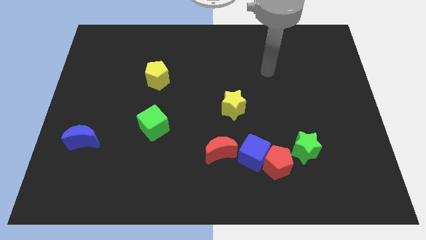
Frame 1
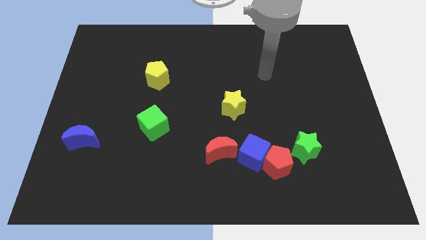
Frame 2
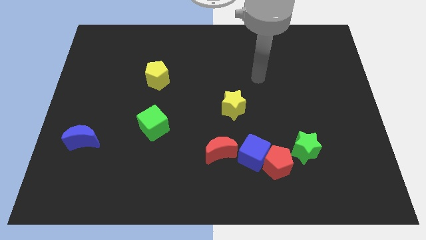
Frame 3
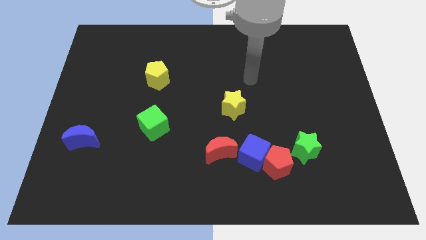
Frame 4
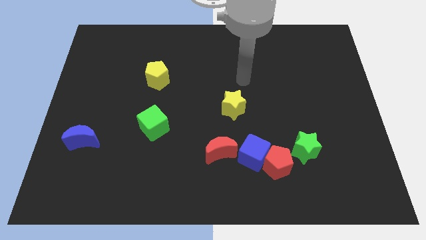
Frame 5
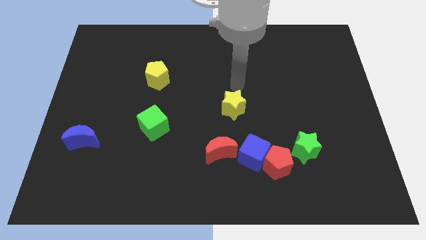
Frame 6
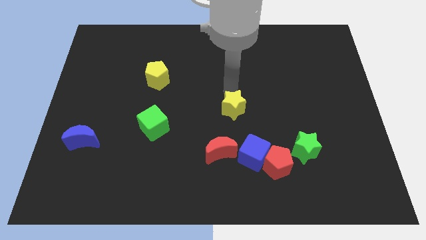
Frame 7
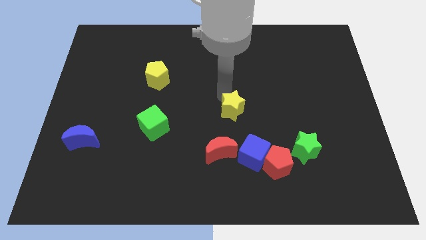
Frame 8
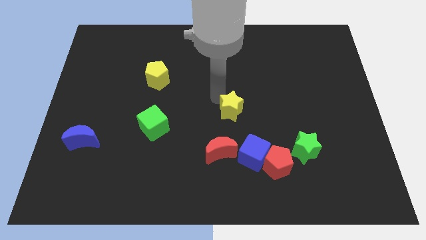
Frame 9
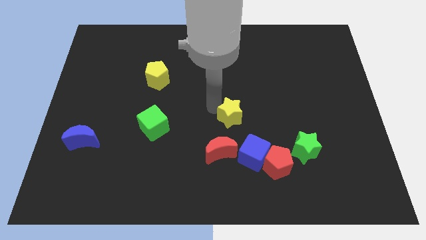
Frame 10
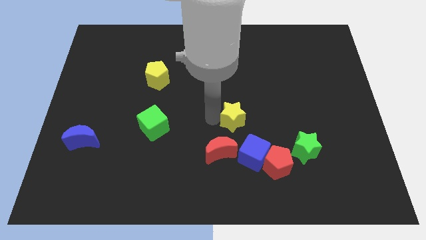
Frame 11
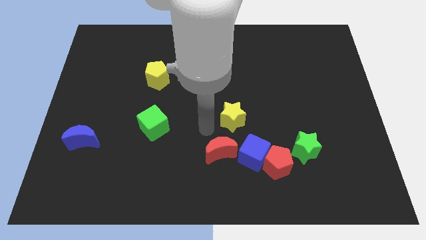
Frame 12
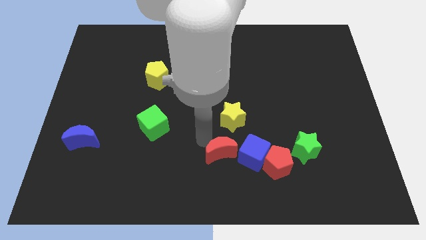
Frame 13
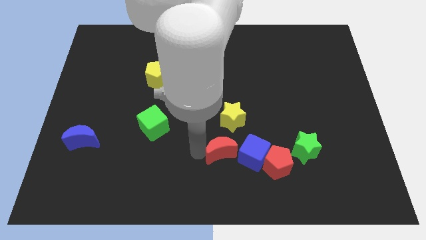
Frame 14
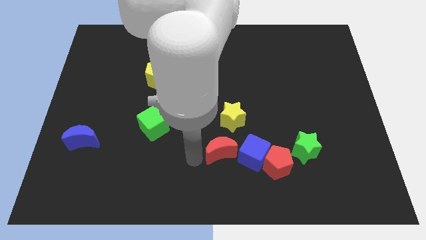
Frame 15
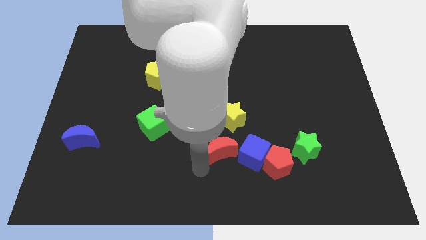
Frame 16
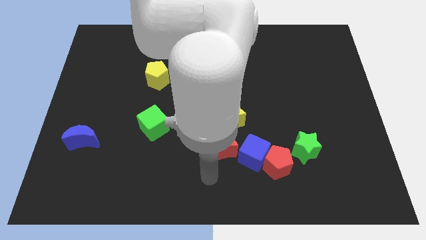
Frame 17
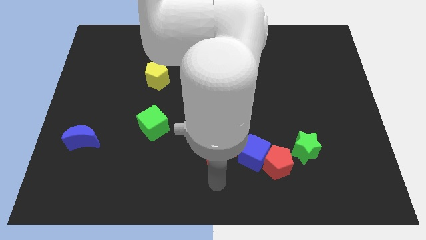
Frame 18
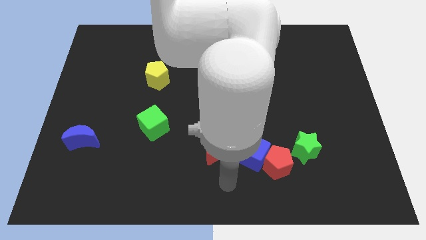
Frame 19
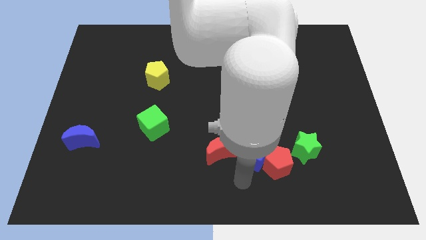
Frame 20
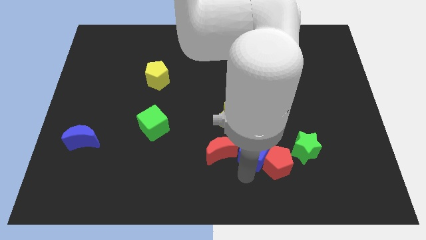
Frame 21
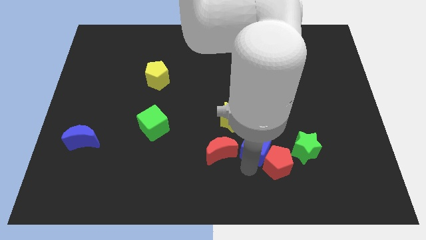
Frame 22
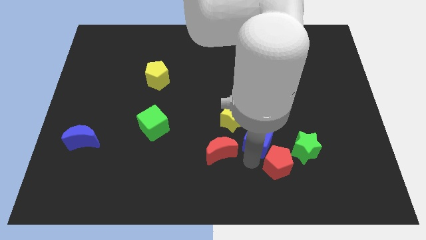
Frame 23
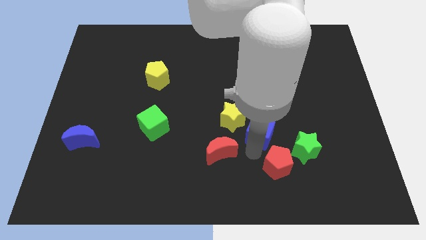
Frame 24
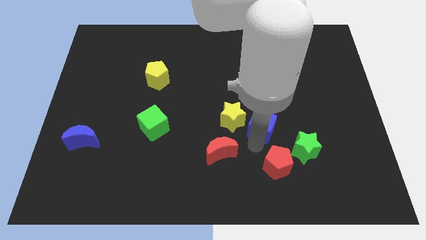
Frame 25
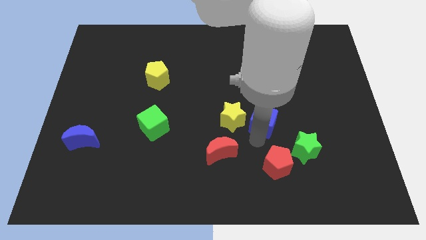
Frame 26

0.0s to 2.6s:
pull the blue cube apart from the red pentagon and red moon

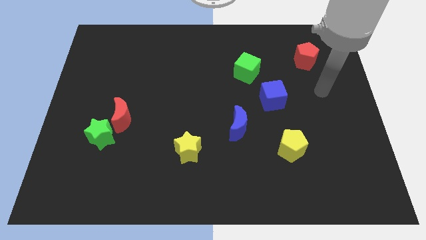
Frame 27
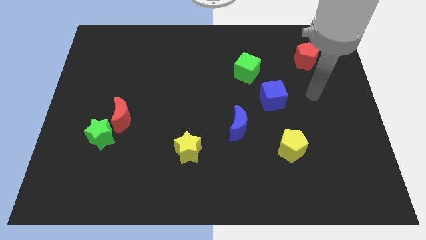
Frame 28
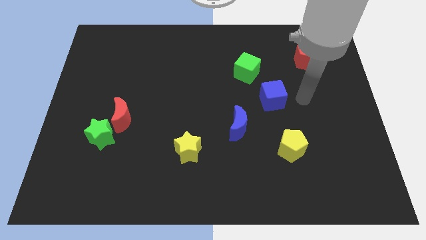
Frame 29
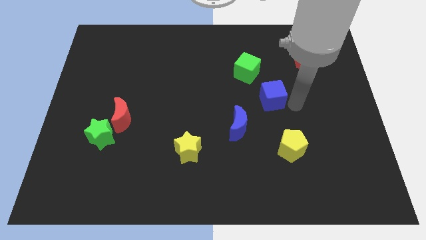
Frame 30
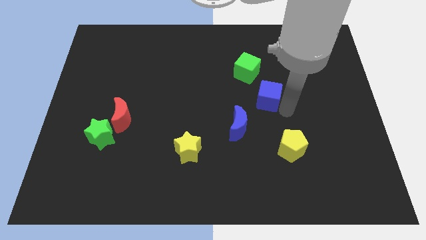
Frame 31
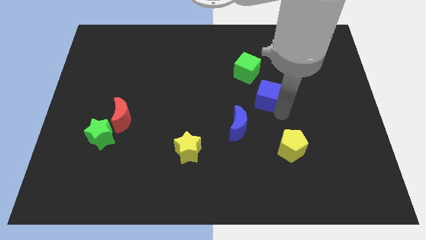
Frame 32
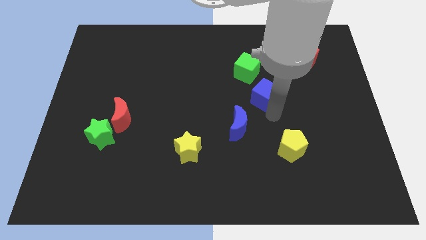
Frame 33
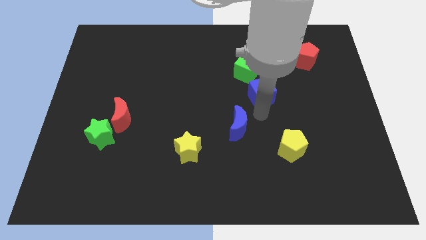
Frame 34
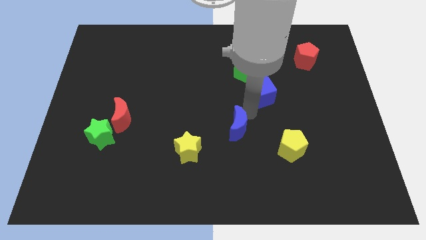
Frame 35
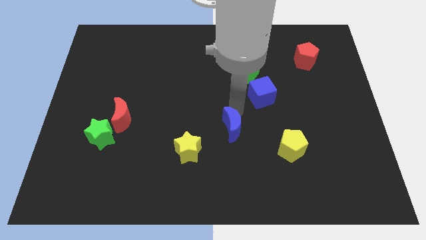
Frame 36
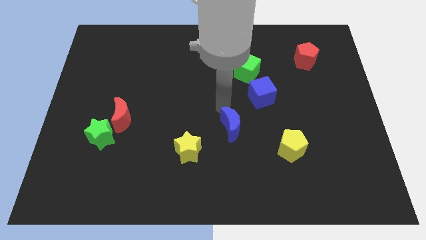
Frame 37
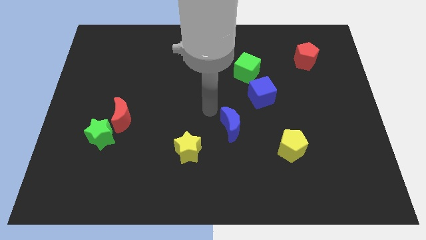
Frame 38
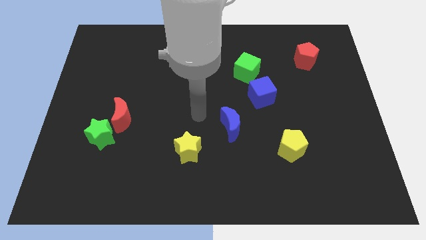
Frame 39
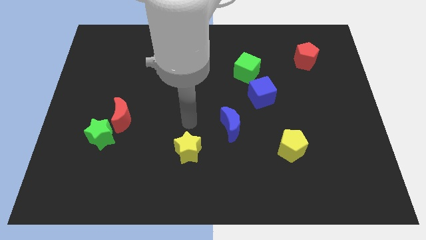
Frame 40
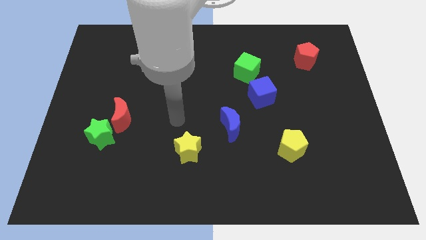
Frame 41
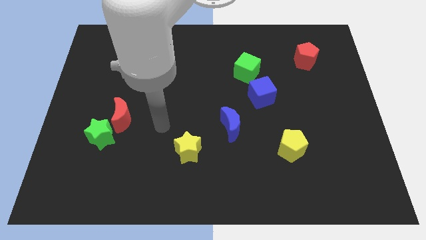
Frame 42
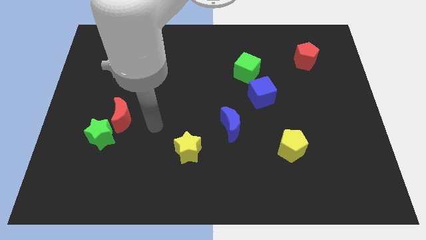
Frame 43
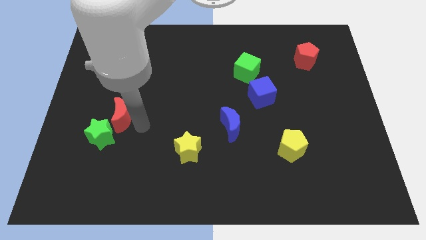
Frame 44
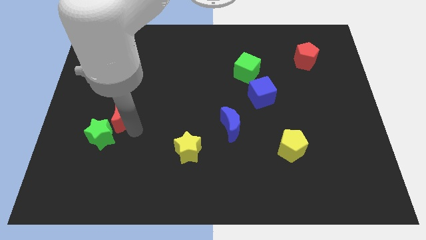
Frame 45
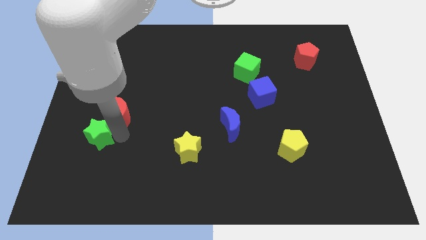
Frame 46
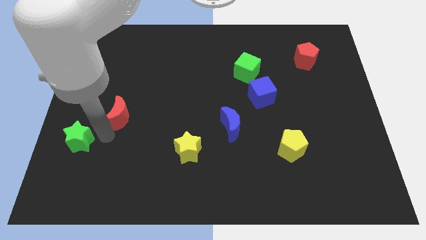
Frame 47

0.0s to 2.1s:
separate the red moon from the green star

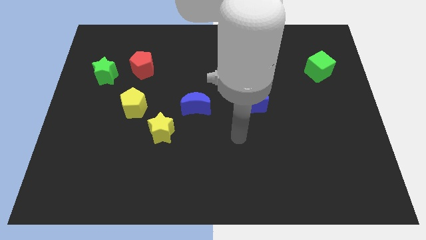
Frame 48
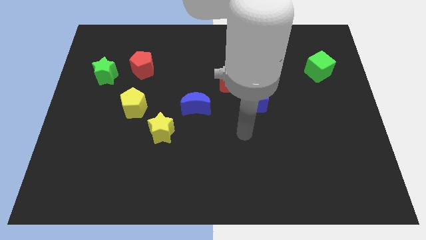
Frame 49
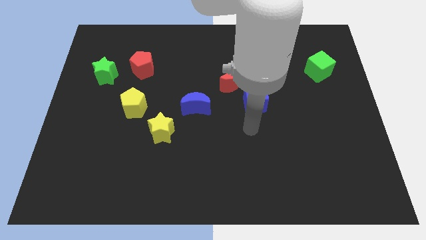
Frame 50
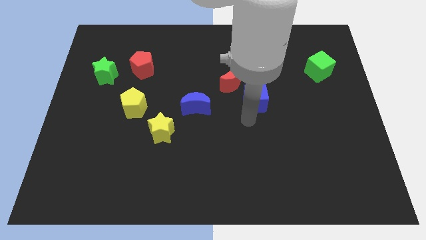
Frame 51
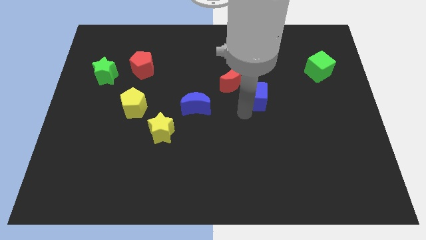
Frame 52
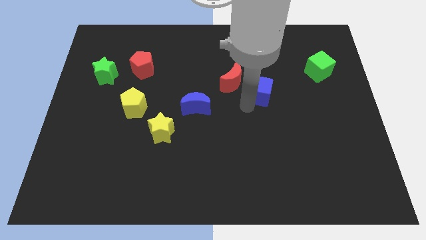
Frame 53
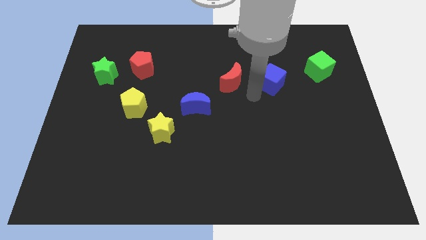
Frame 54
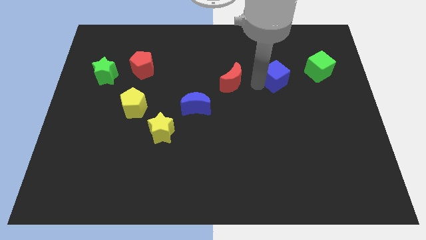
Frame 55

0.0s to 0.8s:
separate the red moon from the blue cube

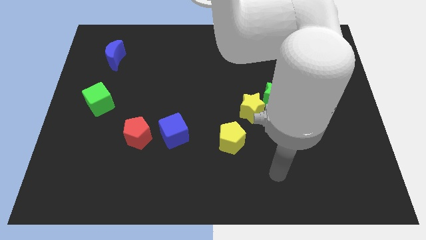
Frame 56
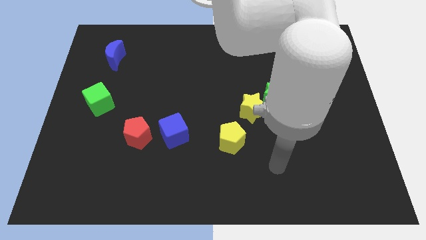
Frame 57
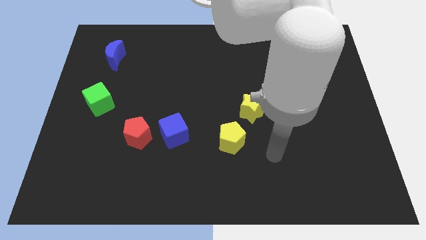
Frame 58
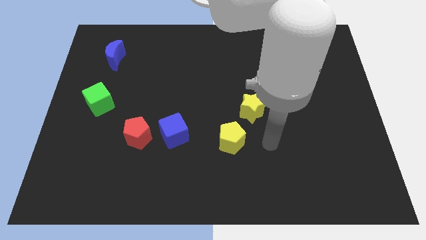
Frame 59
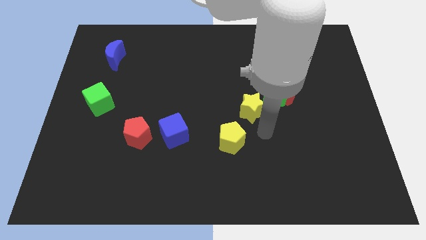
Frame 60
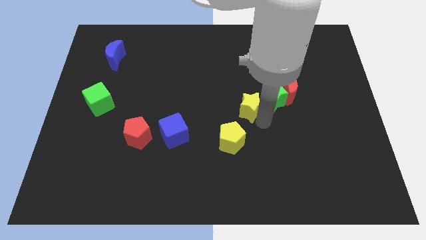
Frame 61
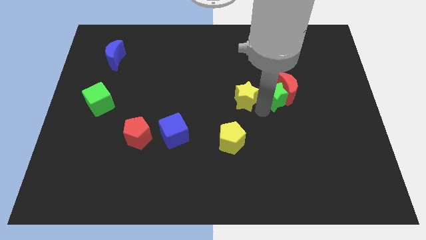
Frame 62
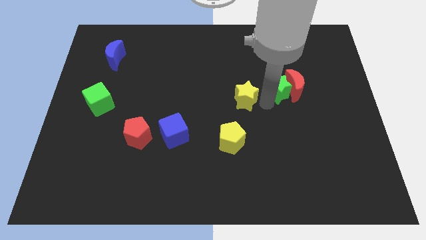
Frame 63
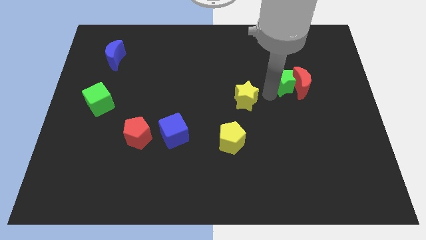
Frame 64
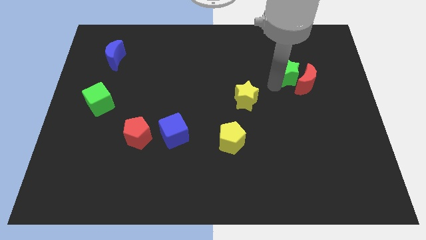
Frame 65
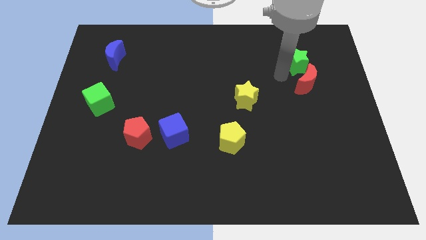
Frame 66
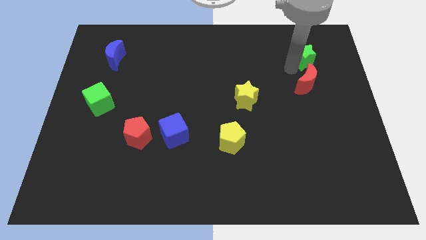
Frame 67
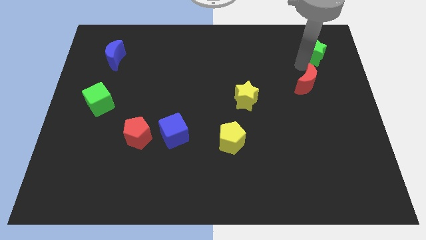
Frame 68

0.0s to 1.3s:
pull the red moon apart from the green star

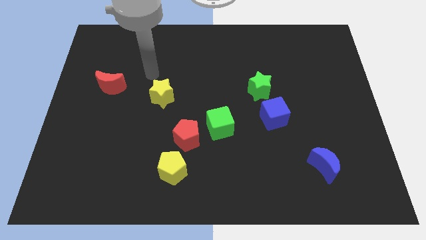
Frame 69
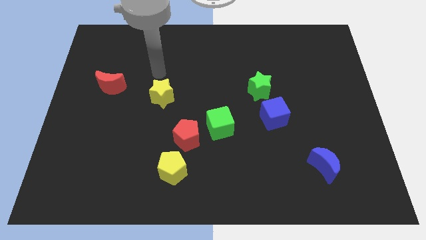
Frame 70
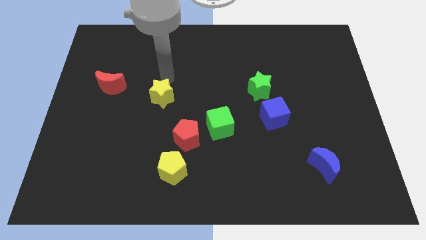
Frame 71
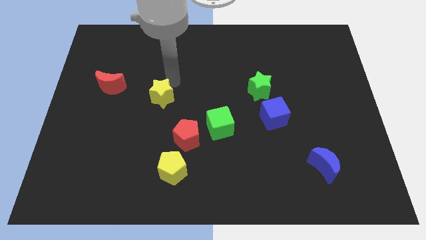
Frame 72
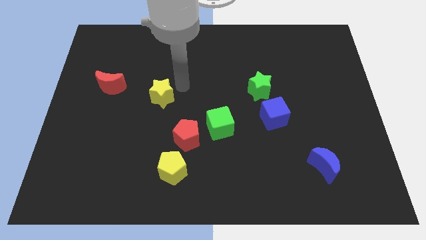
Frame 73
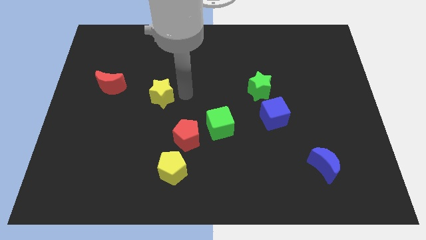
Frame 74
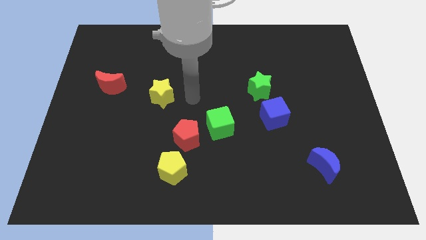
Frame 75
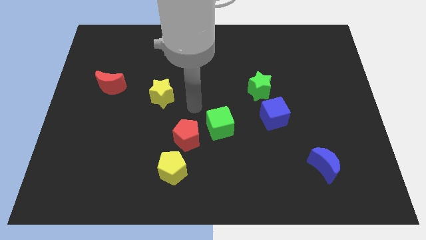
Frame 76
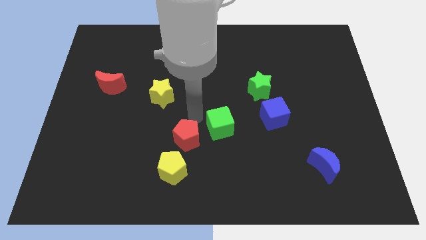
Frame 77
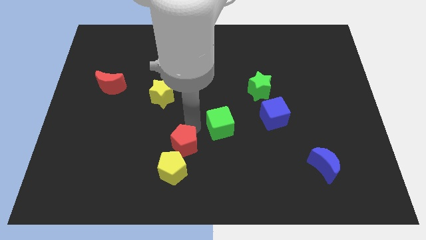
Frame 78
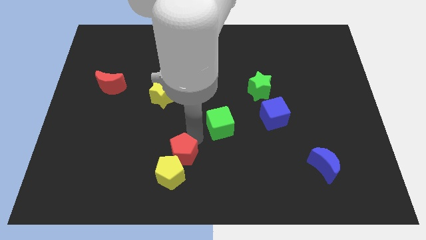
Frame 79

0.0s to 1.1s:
move the green cube away from the red pentagon

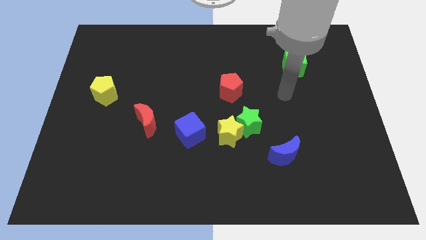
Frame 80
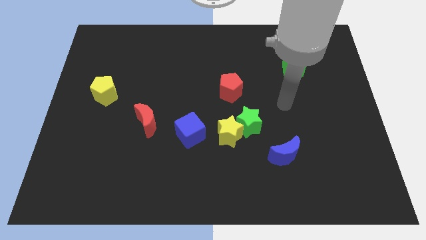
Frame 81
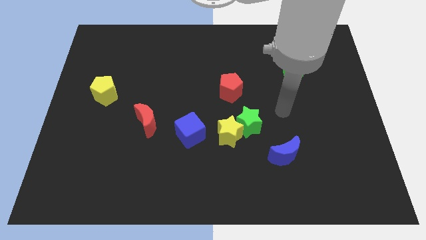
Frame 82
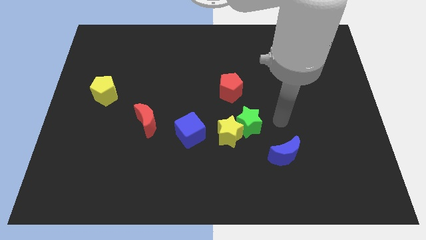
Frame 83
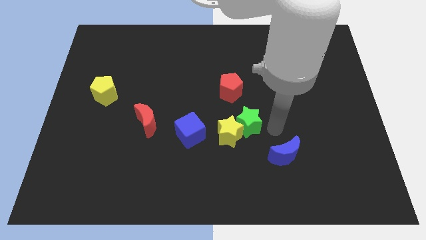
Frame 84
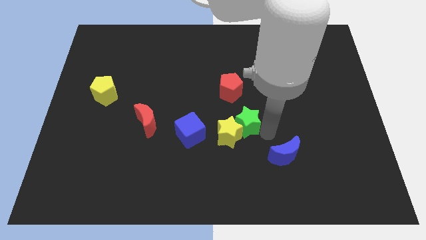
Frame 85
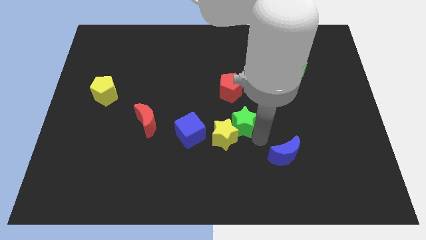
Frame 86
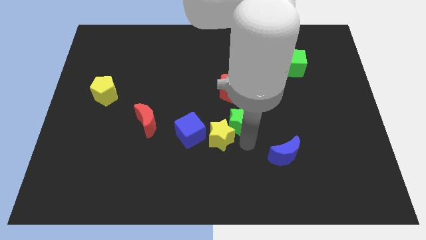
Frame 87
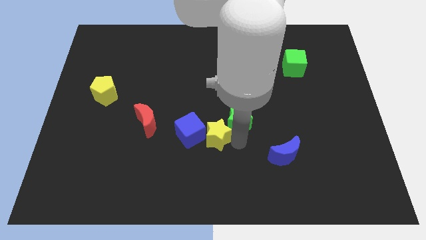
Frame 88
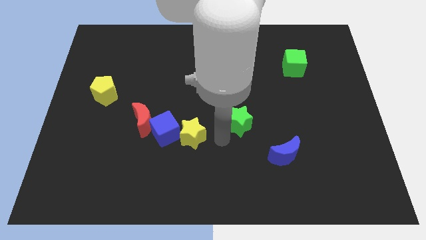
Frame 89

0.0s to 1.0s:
pull the green star apart from the yellow star

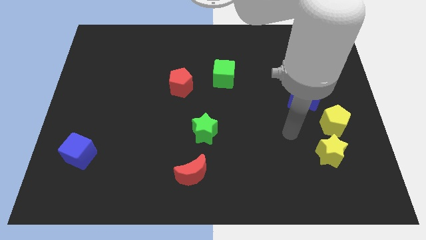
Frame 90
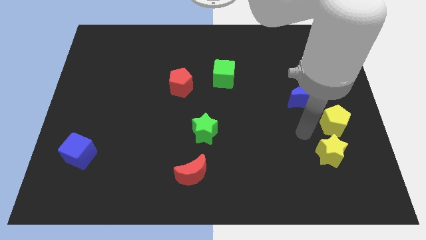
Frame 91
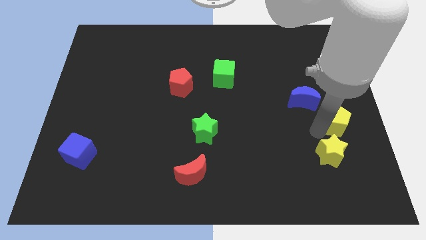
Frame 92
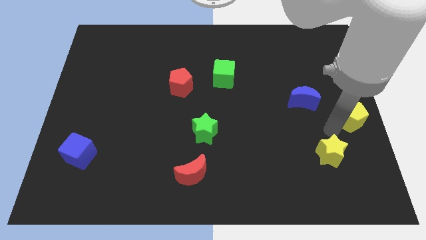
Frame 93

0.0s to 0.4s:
move the yellow star away from the yellow pentagon
